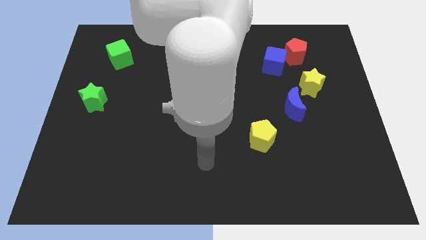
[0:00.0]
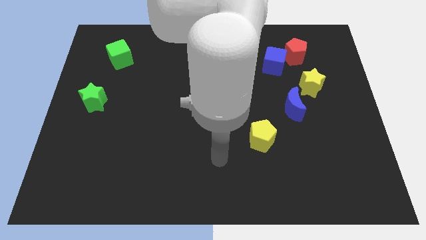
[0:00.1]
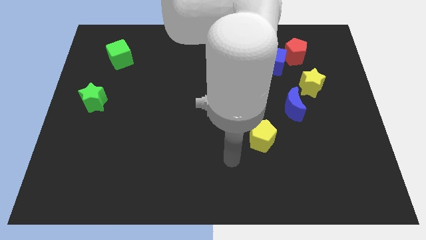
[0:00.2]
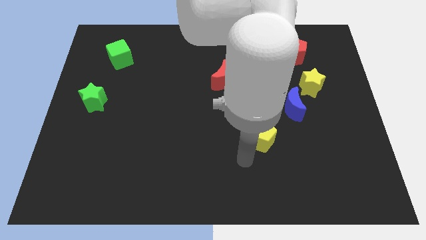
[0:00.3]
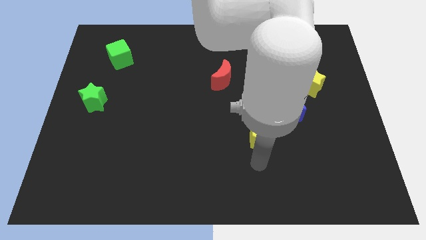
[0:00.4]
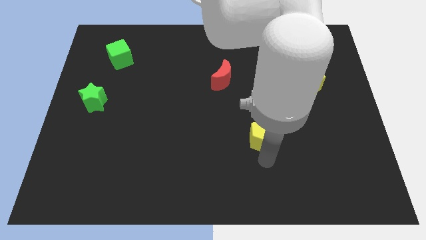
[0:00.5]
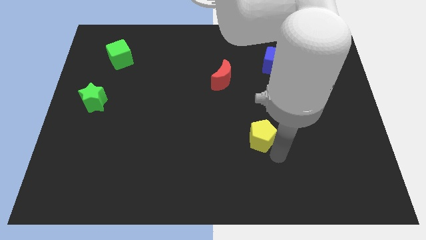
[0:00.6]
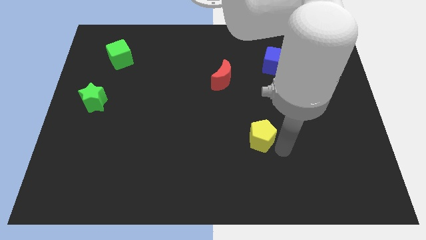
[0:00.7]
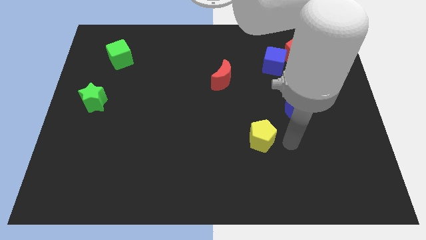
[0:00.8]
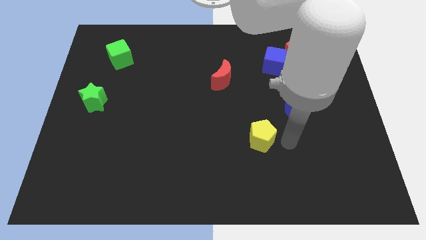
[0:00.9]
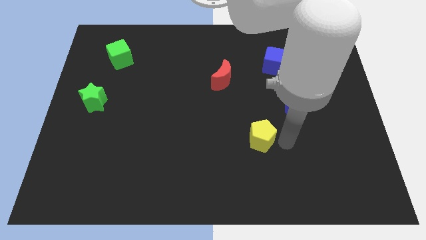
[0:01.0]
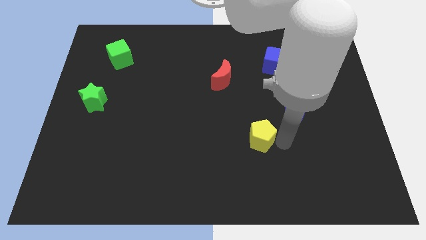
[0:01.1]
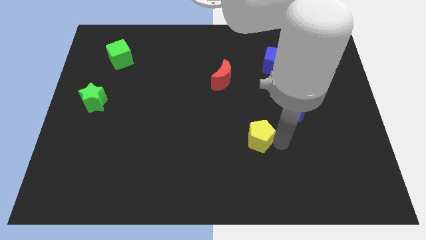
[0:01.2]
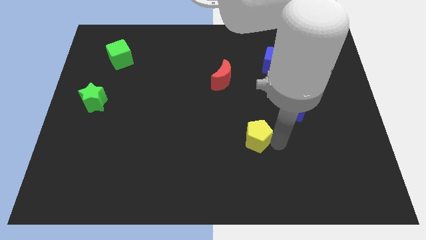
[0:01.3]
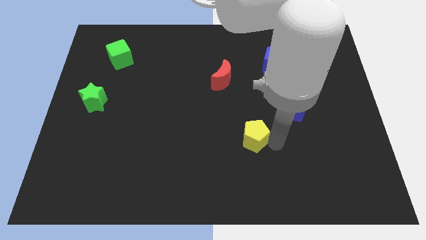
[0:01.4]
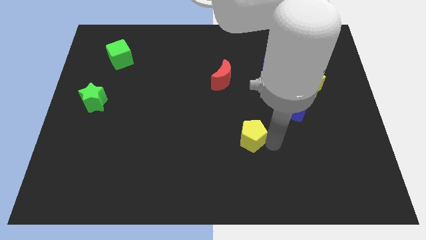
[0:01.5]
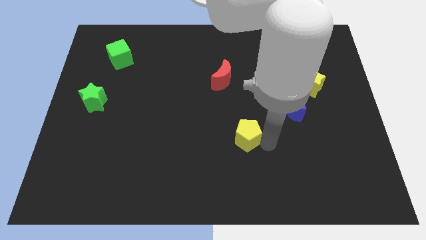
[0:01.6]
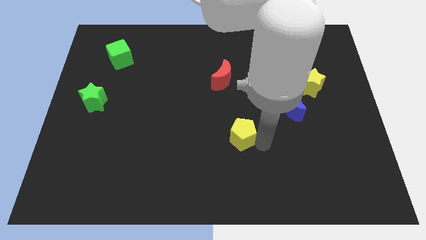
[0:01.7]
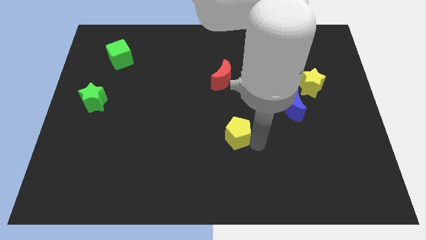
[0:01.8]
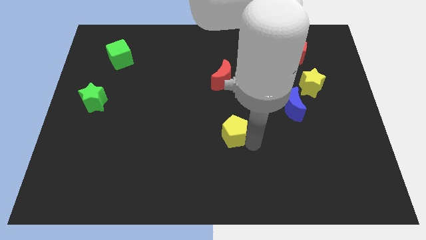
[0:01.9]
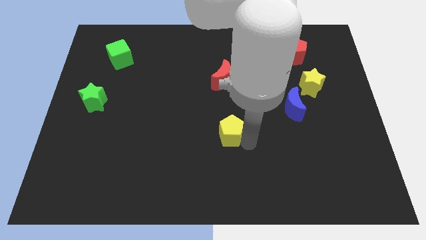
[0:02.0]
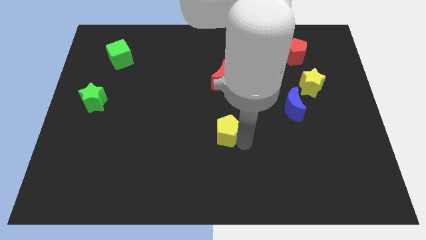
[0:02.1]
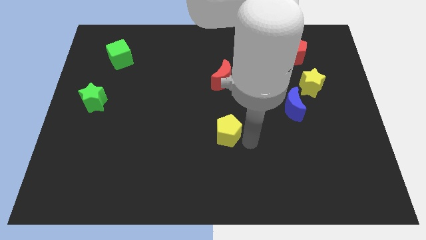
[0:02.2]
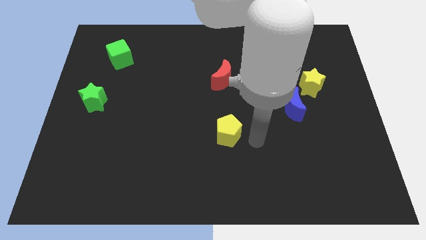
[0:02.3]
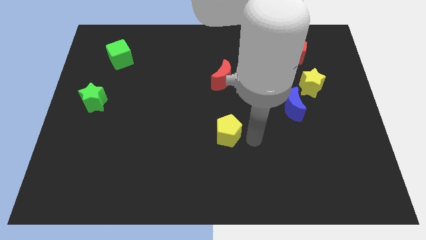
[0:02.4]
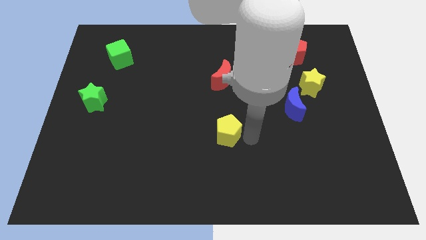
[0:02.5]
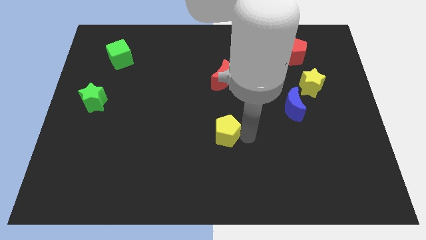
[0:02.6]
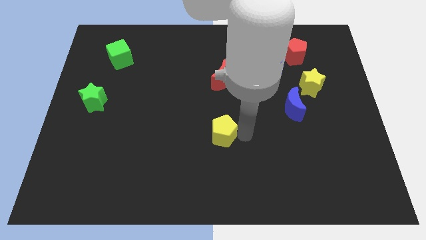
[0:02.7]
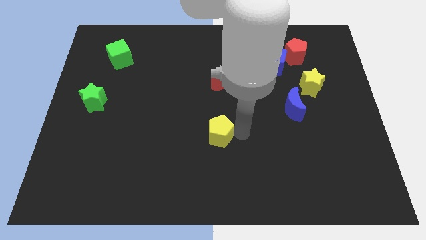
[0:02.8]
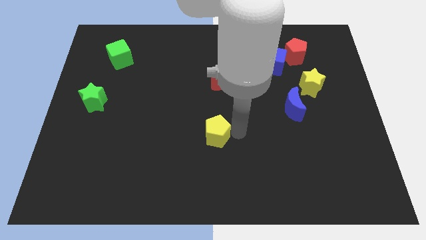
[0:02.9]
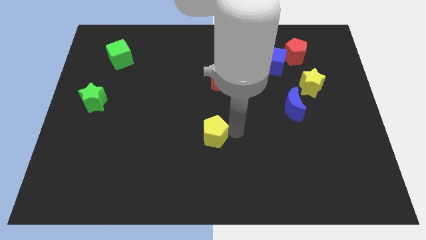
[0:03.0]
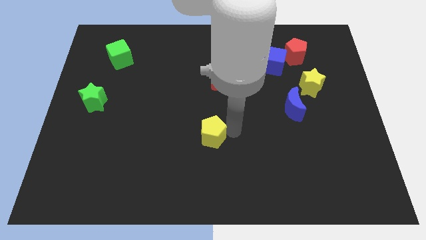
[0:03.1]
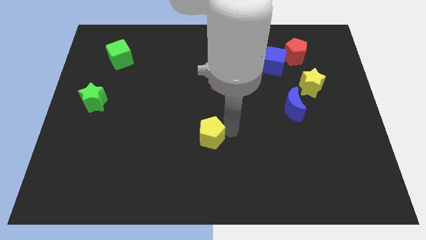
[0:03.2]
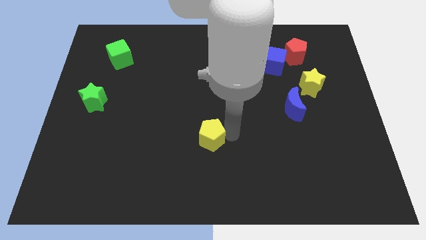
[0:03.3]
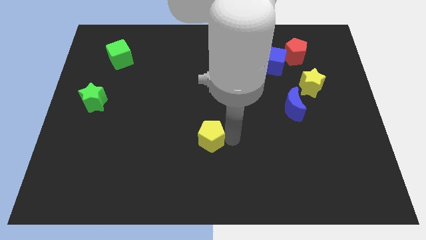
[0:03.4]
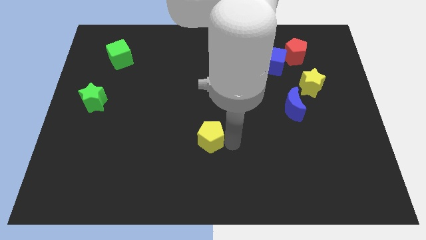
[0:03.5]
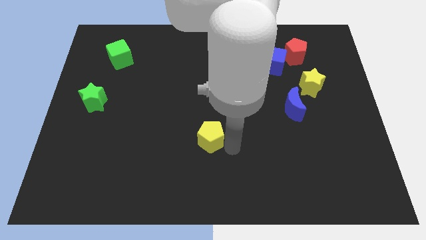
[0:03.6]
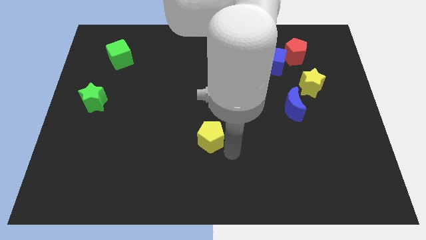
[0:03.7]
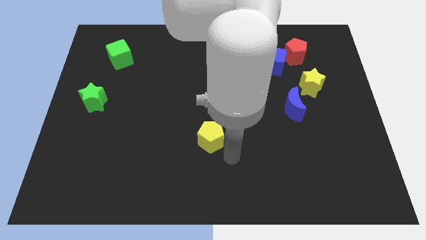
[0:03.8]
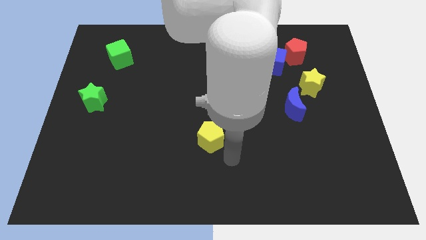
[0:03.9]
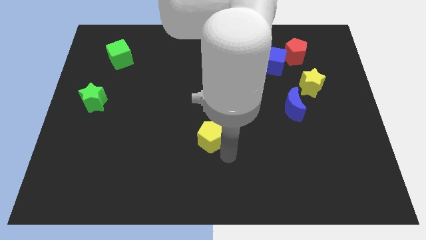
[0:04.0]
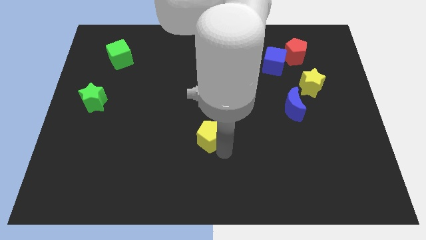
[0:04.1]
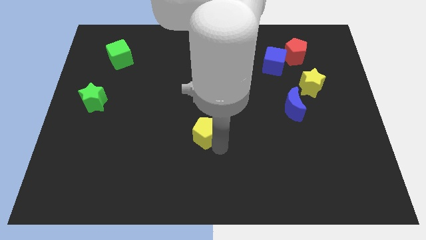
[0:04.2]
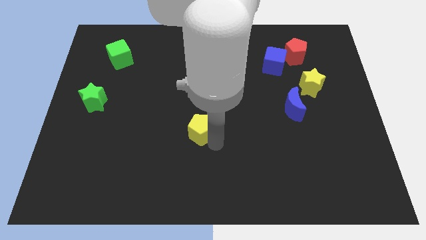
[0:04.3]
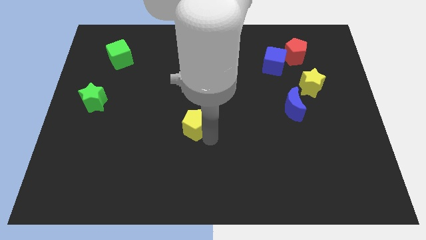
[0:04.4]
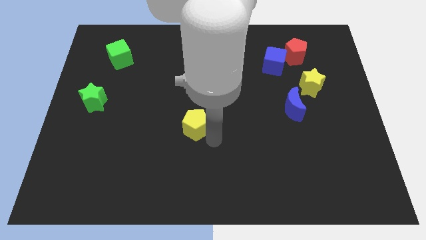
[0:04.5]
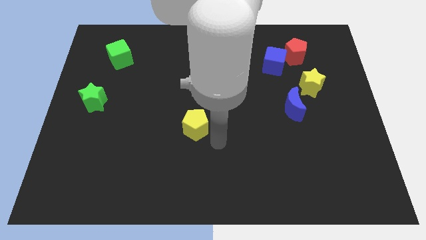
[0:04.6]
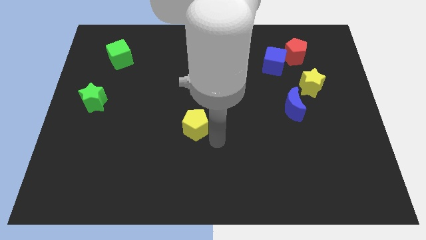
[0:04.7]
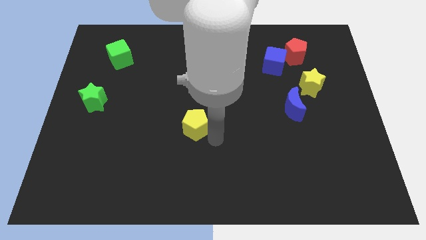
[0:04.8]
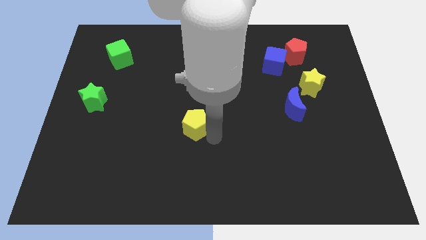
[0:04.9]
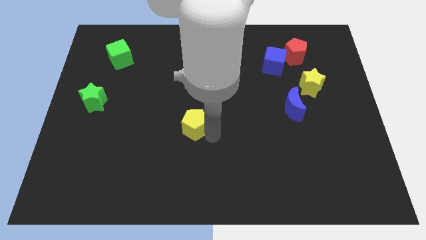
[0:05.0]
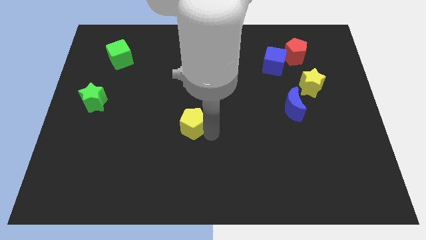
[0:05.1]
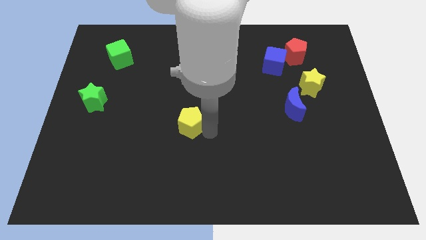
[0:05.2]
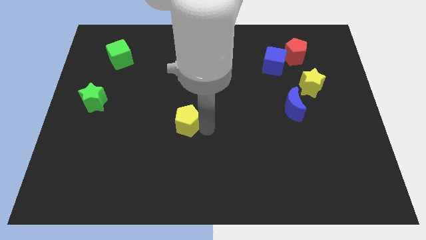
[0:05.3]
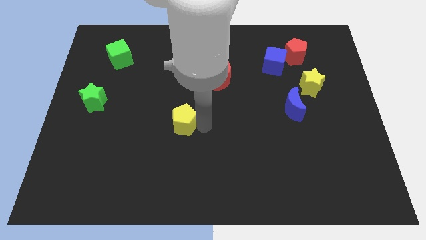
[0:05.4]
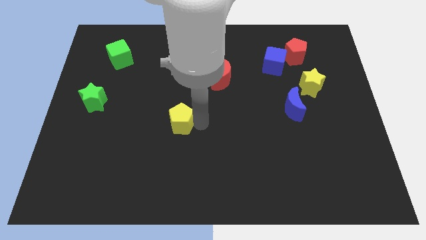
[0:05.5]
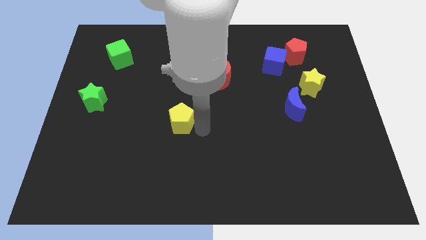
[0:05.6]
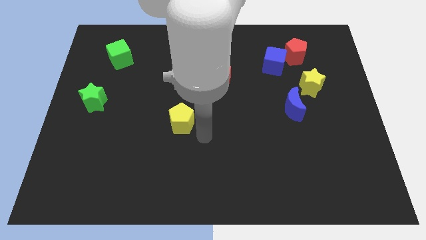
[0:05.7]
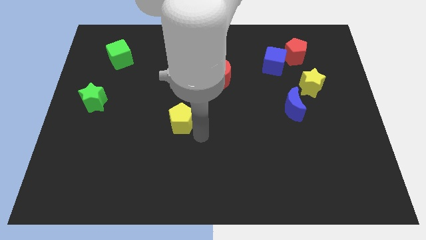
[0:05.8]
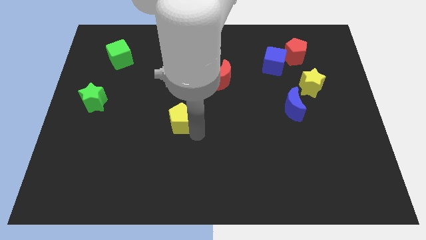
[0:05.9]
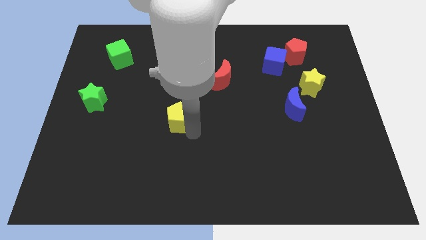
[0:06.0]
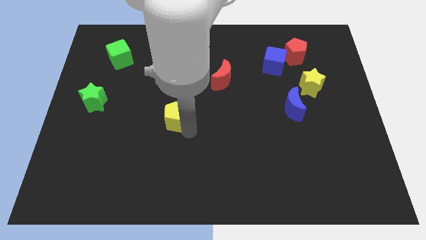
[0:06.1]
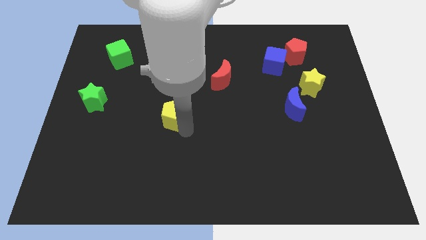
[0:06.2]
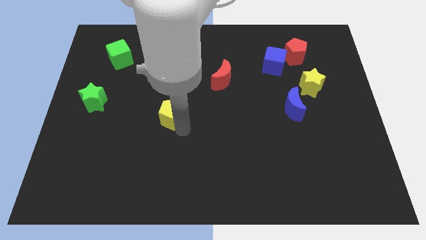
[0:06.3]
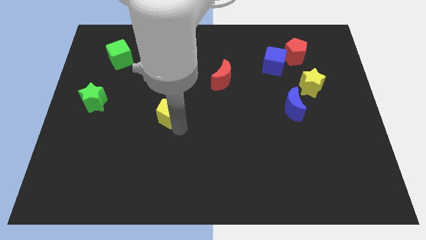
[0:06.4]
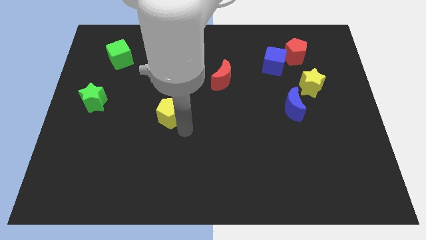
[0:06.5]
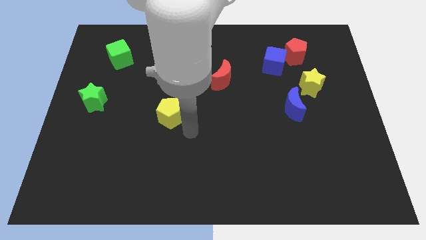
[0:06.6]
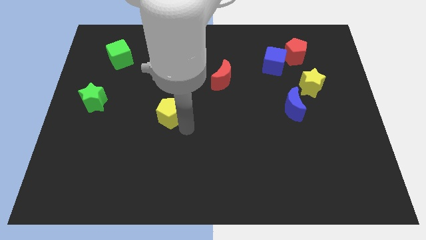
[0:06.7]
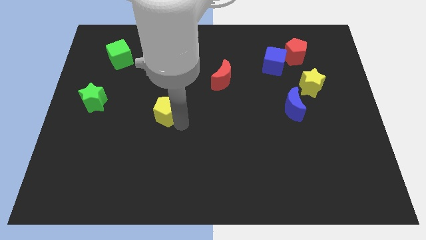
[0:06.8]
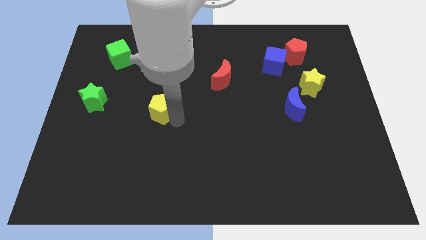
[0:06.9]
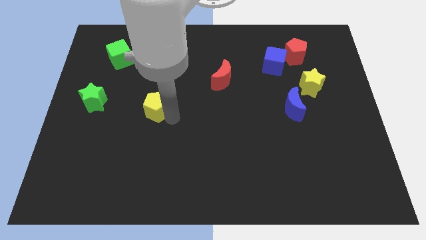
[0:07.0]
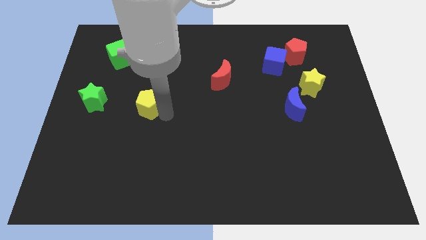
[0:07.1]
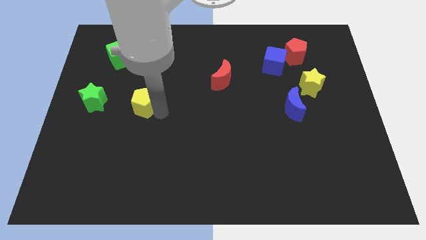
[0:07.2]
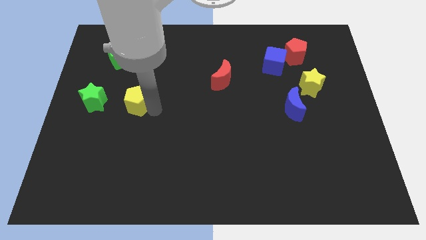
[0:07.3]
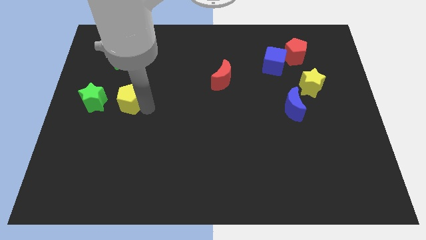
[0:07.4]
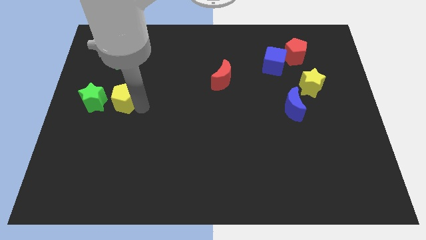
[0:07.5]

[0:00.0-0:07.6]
push the yellow pentagon to the bottom side of the green cube
